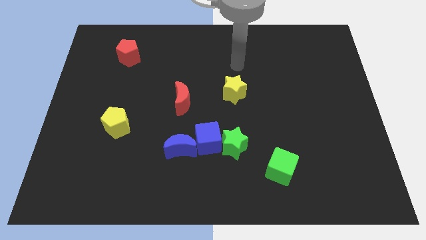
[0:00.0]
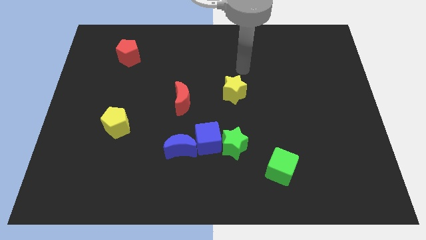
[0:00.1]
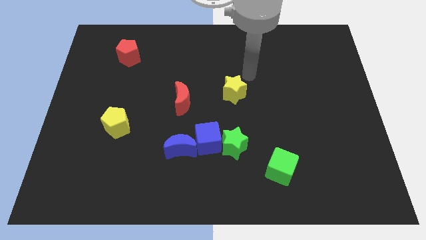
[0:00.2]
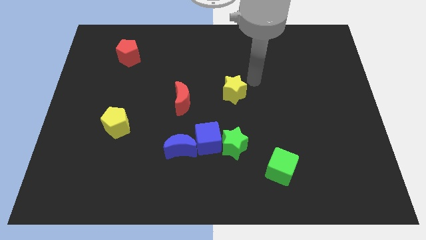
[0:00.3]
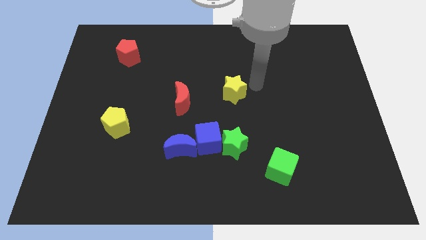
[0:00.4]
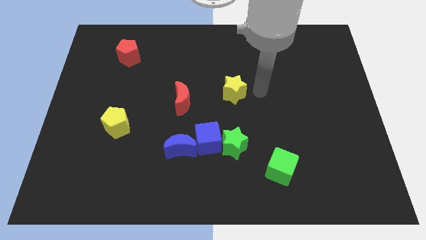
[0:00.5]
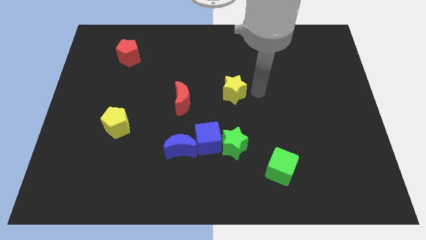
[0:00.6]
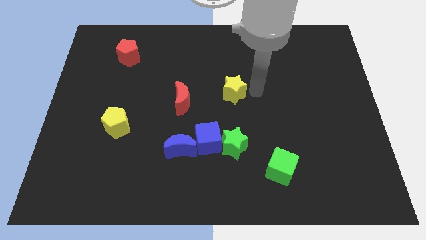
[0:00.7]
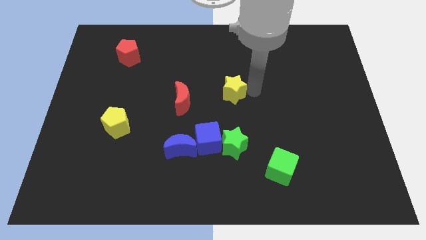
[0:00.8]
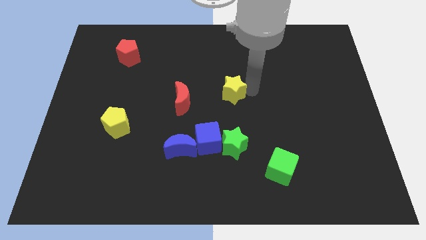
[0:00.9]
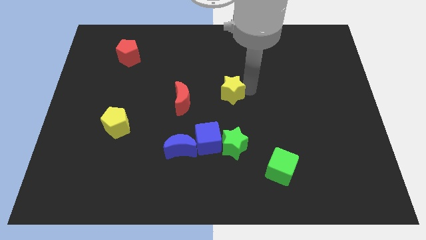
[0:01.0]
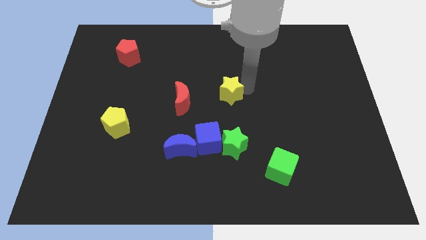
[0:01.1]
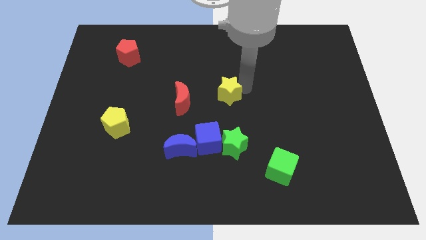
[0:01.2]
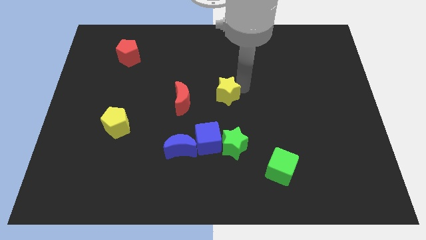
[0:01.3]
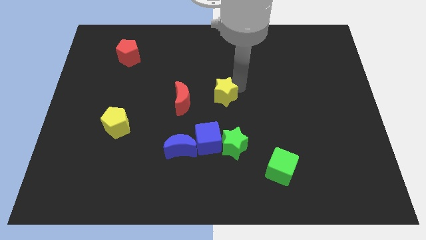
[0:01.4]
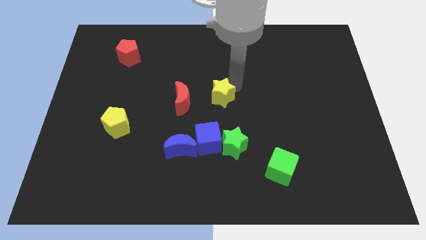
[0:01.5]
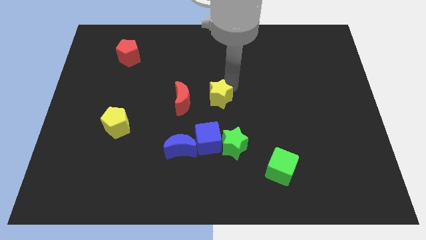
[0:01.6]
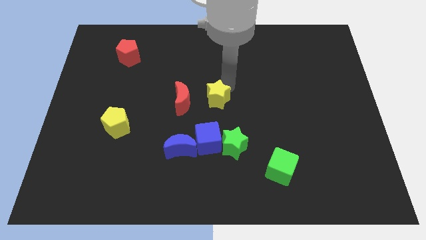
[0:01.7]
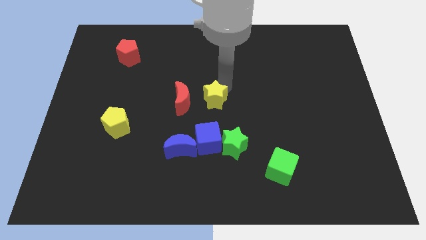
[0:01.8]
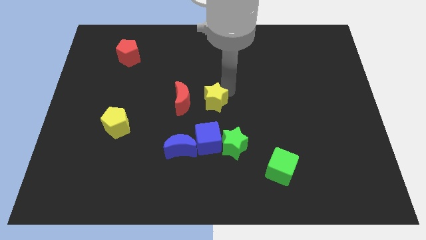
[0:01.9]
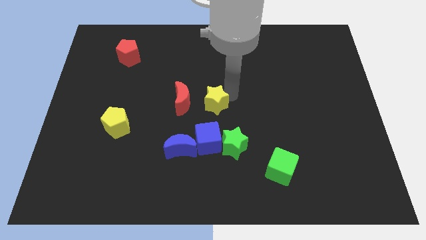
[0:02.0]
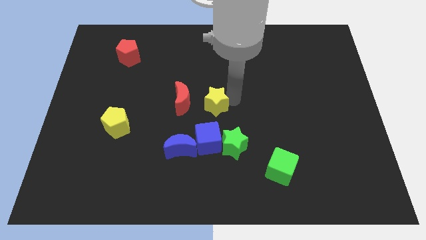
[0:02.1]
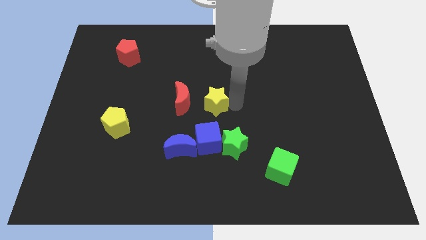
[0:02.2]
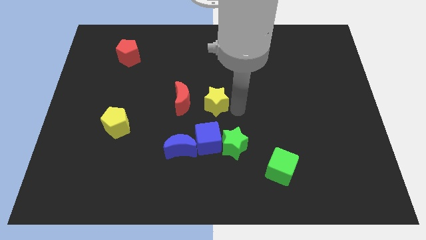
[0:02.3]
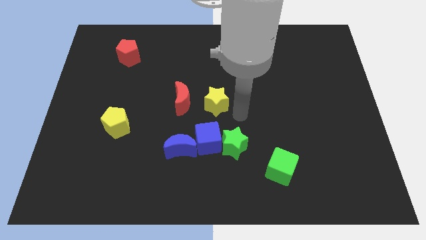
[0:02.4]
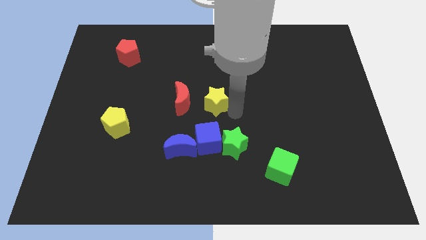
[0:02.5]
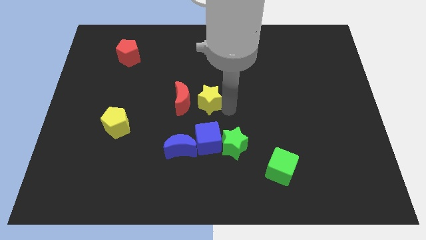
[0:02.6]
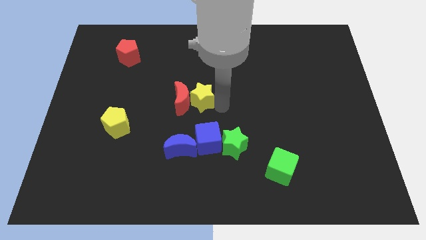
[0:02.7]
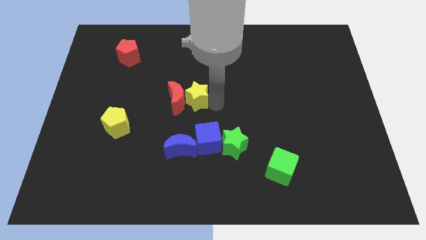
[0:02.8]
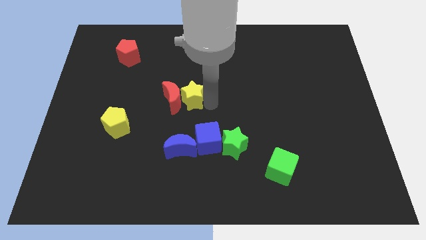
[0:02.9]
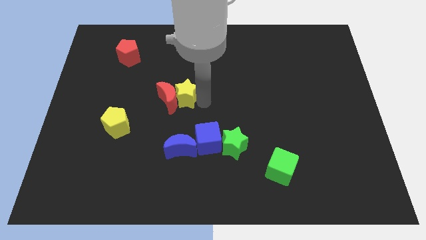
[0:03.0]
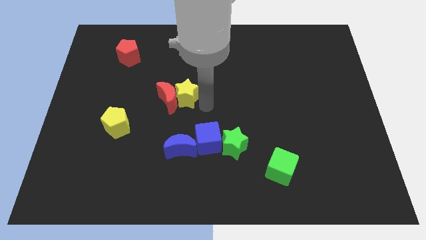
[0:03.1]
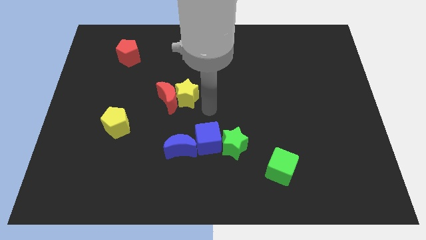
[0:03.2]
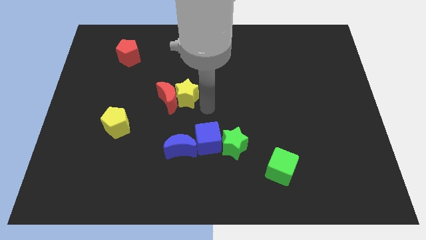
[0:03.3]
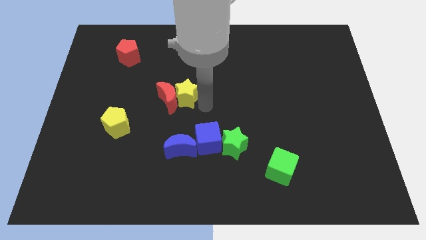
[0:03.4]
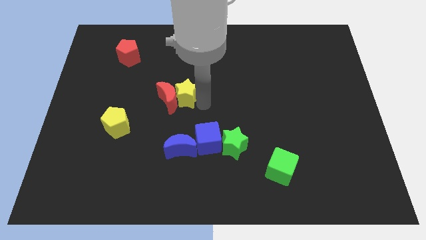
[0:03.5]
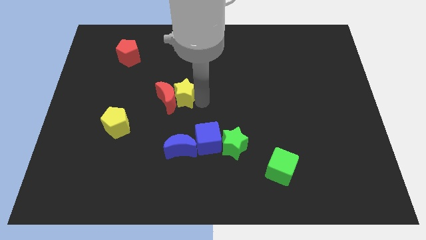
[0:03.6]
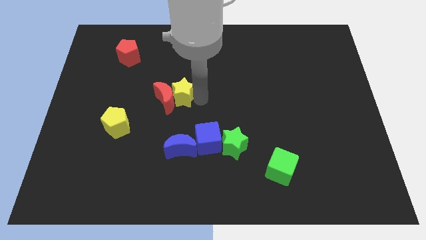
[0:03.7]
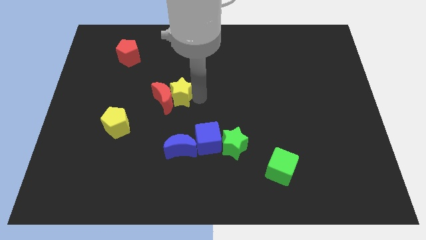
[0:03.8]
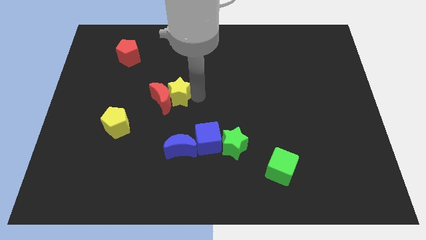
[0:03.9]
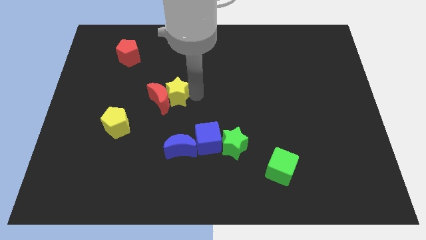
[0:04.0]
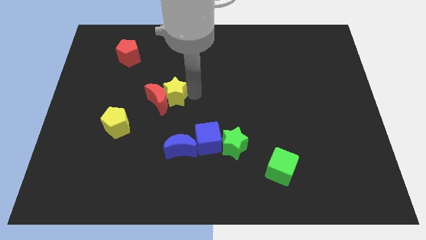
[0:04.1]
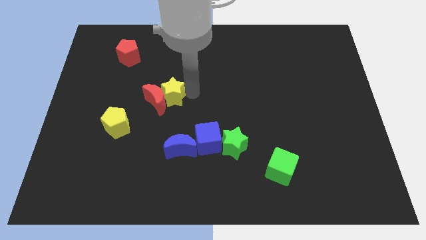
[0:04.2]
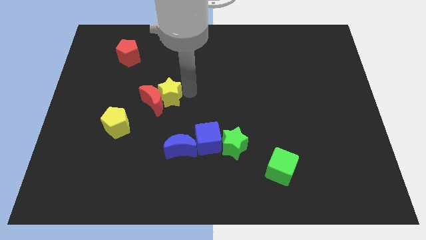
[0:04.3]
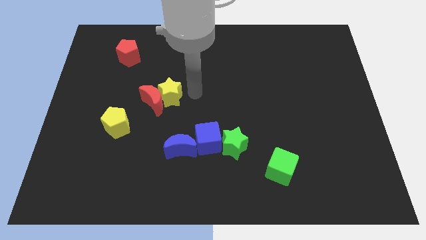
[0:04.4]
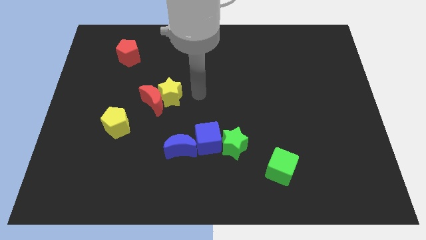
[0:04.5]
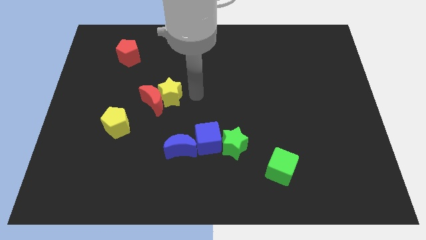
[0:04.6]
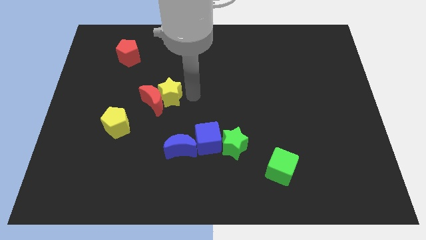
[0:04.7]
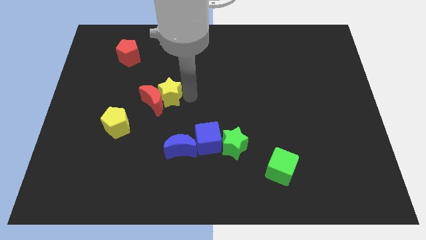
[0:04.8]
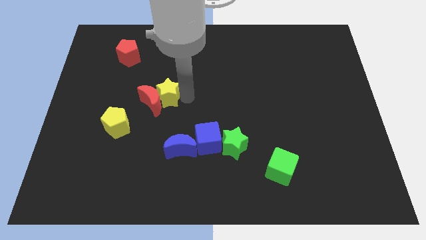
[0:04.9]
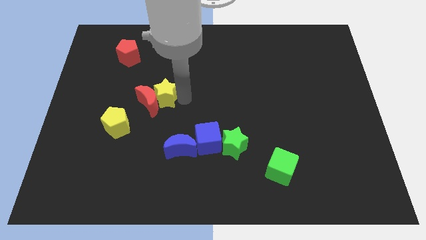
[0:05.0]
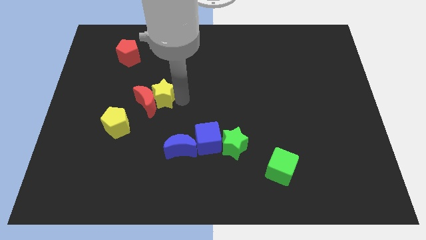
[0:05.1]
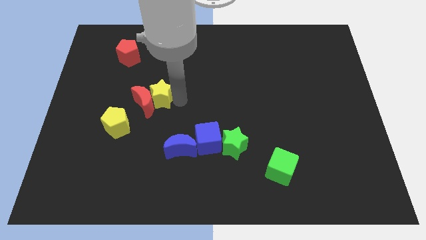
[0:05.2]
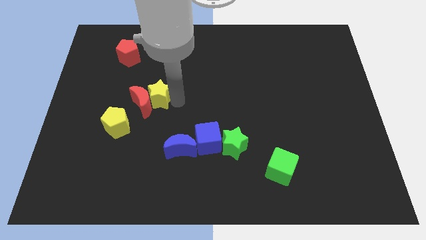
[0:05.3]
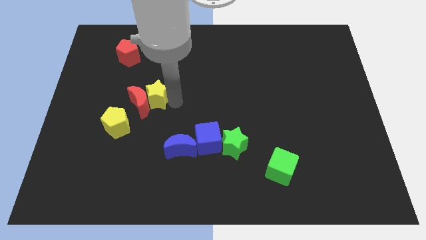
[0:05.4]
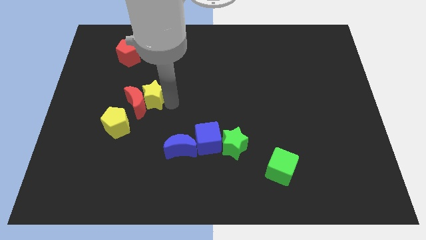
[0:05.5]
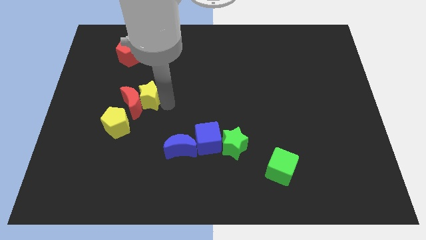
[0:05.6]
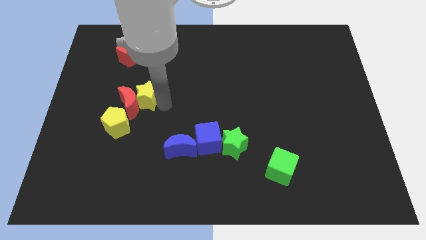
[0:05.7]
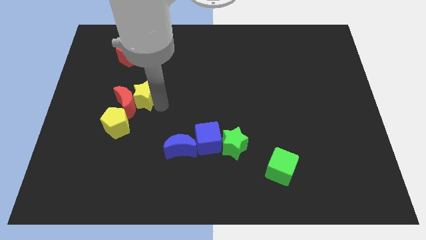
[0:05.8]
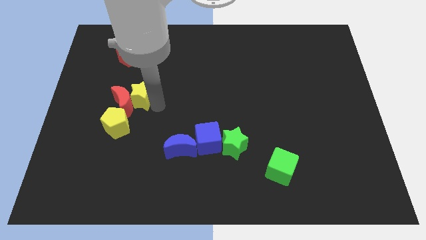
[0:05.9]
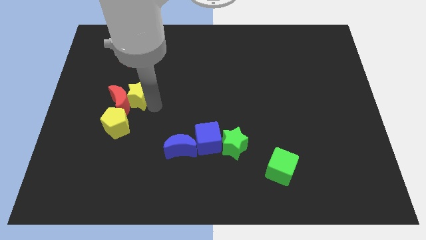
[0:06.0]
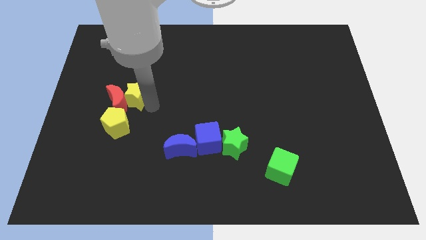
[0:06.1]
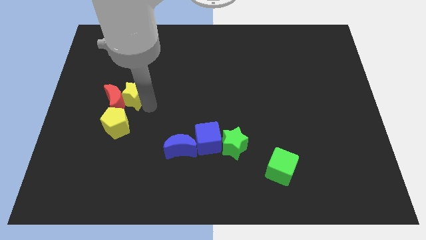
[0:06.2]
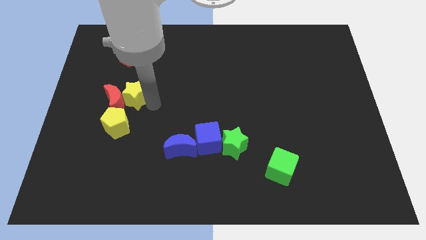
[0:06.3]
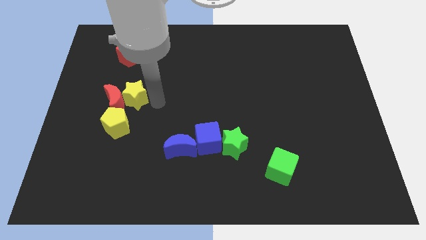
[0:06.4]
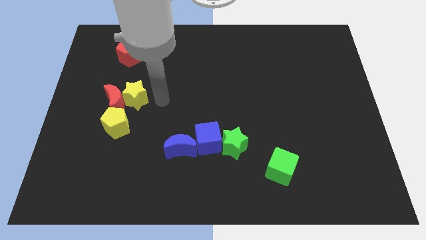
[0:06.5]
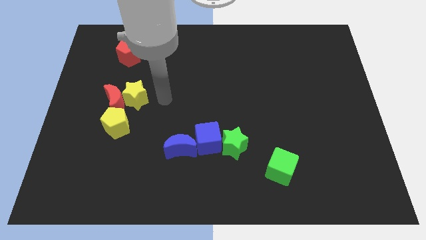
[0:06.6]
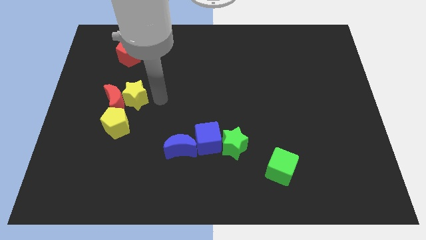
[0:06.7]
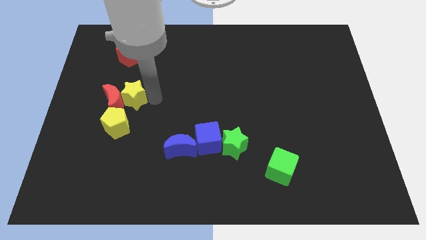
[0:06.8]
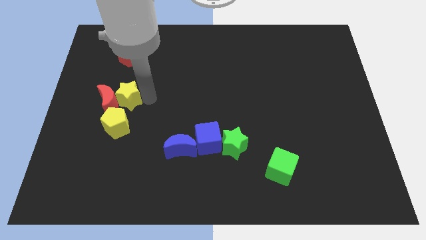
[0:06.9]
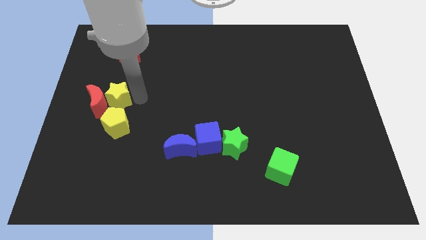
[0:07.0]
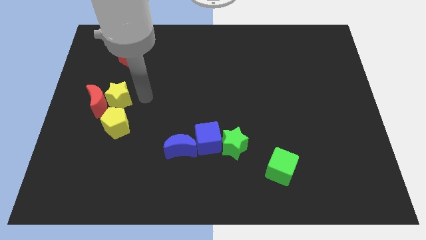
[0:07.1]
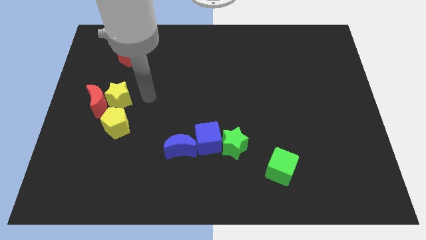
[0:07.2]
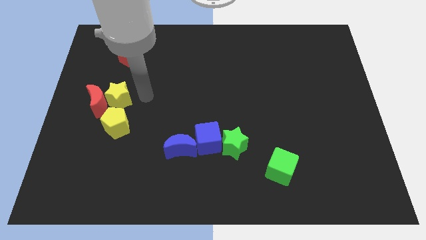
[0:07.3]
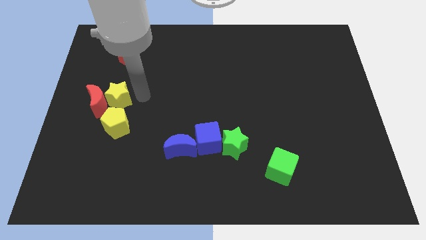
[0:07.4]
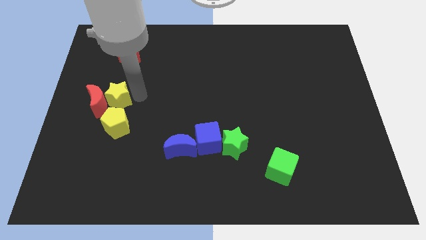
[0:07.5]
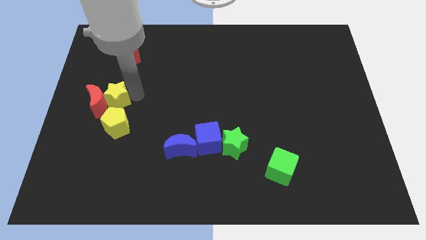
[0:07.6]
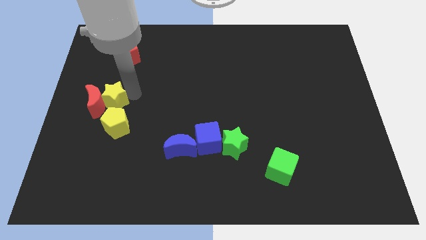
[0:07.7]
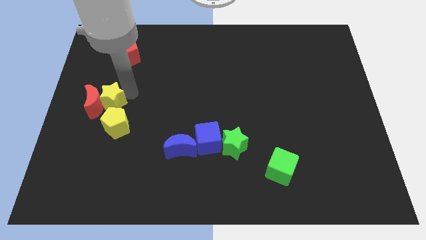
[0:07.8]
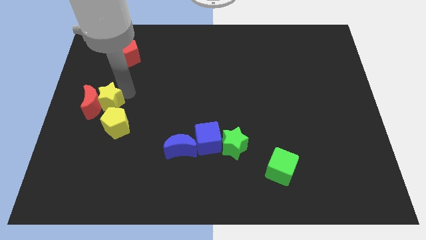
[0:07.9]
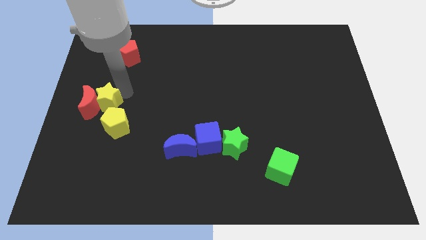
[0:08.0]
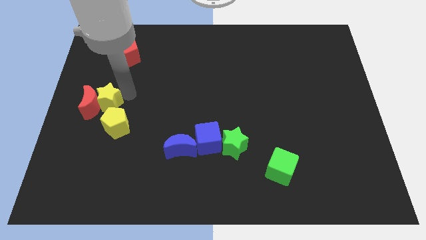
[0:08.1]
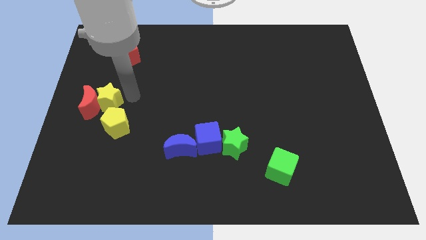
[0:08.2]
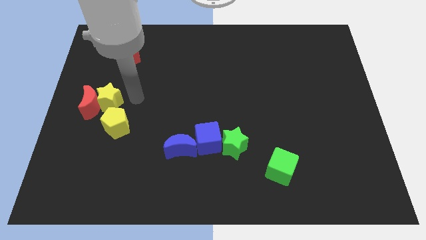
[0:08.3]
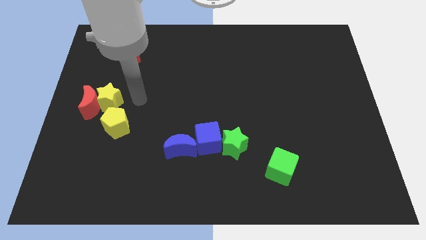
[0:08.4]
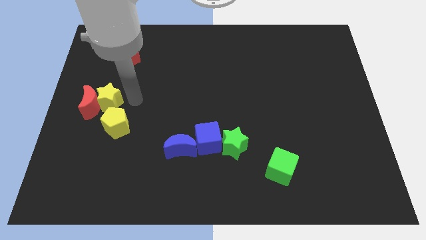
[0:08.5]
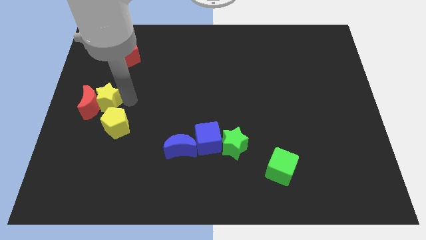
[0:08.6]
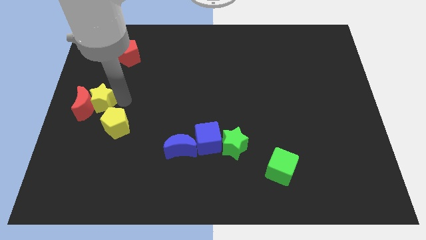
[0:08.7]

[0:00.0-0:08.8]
put the yellow star to the center left
